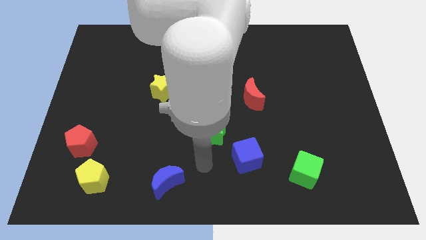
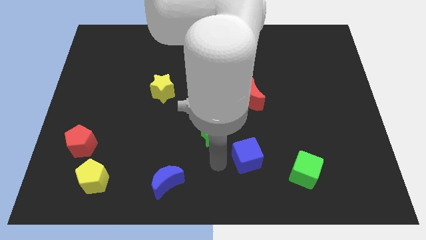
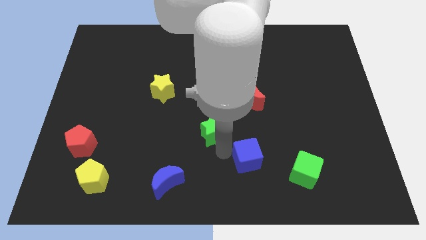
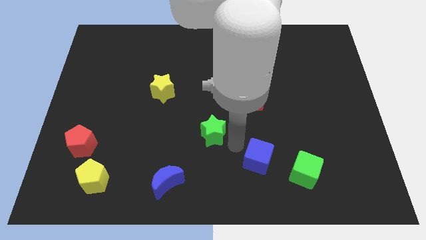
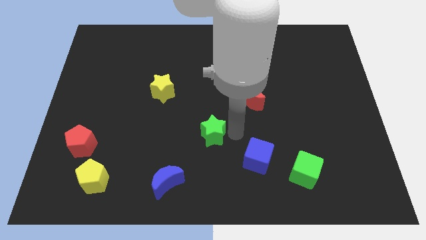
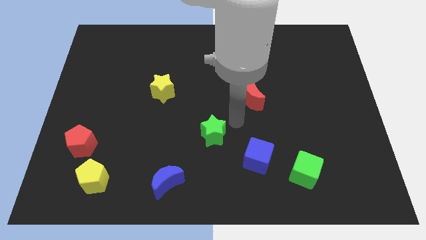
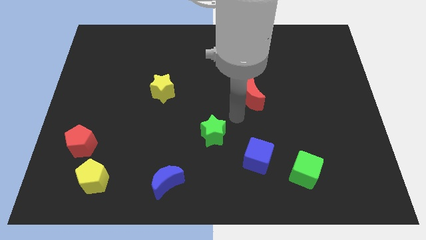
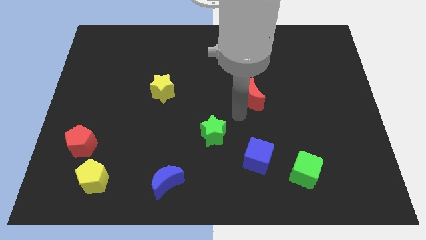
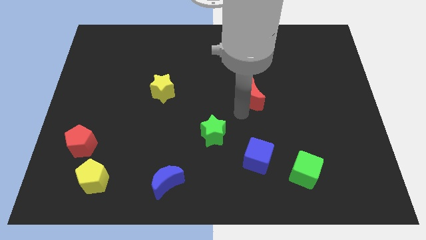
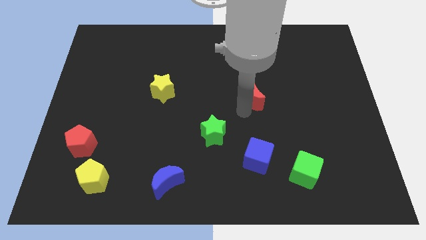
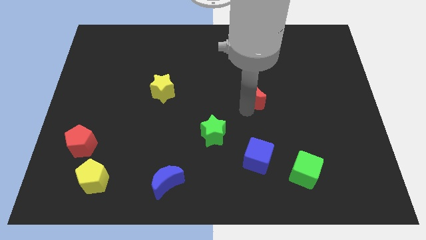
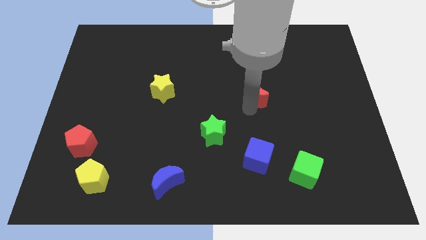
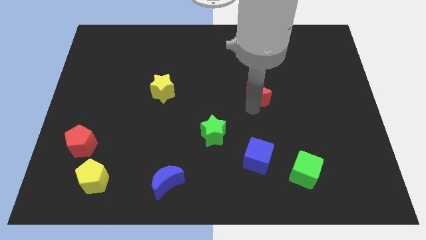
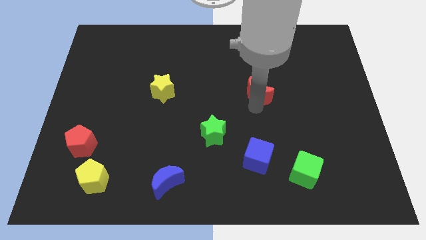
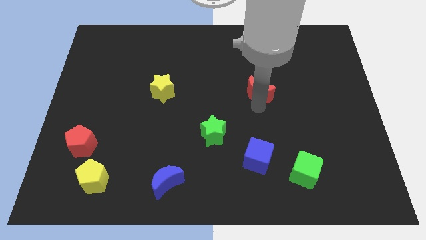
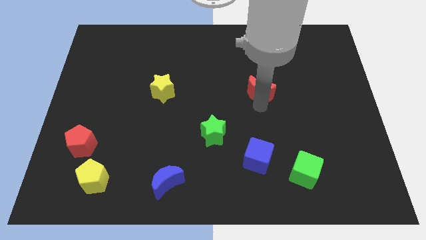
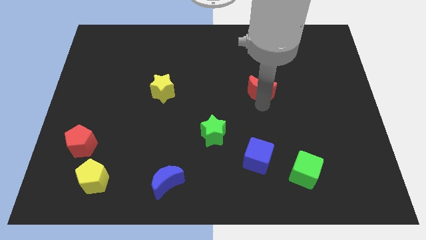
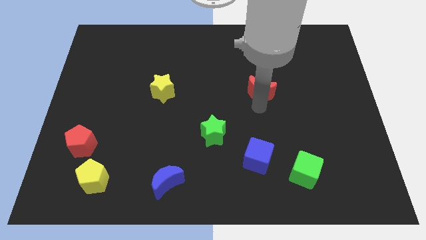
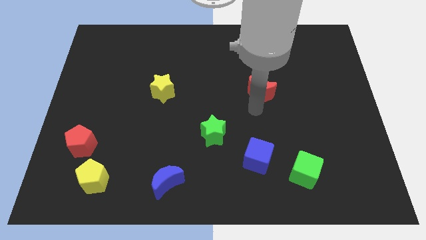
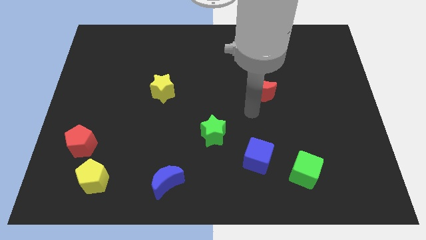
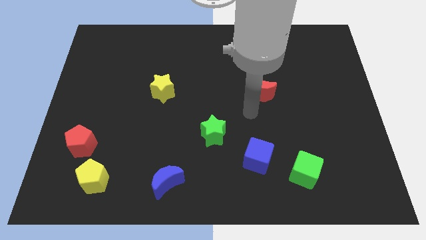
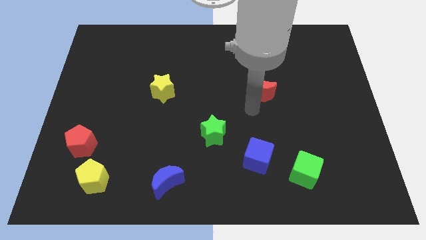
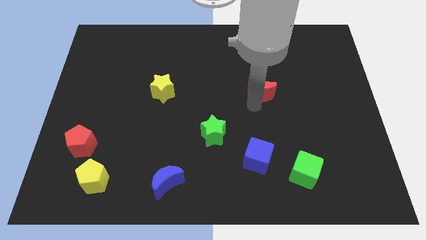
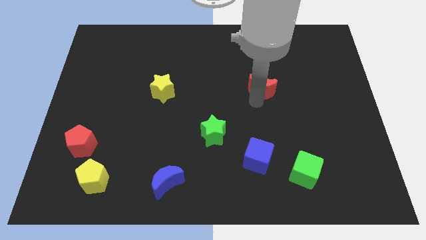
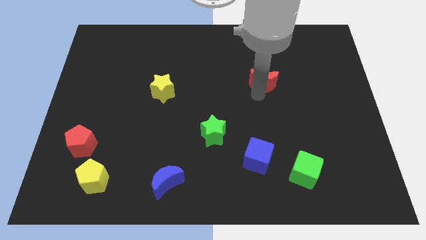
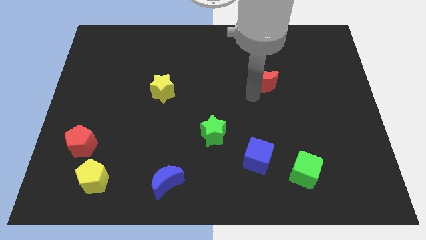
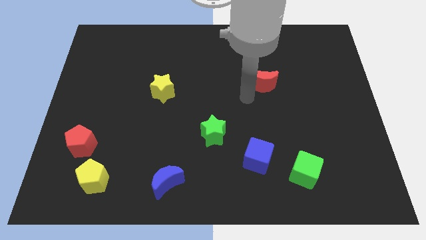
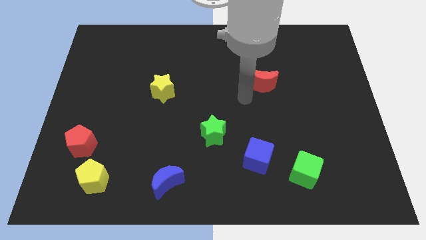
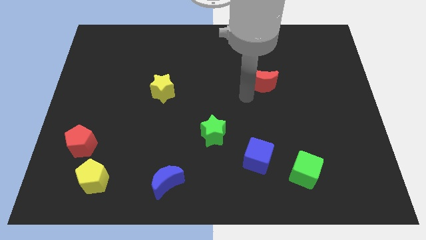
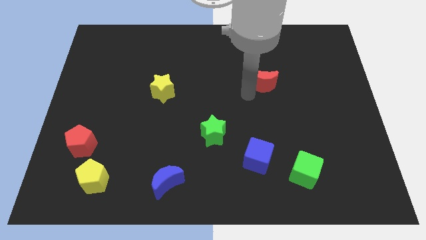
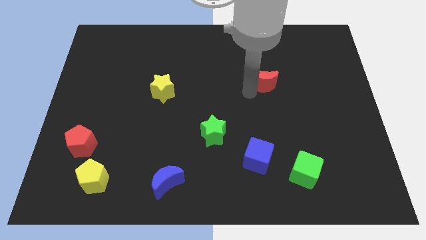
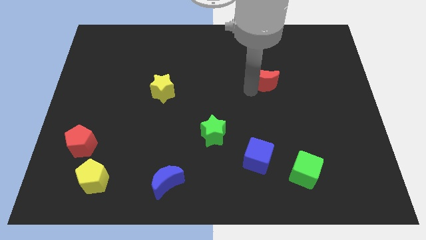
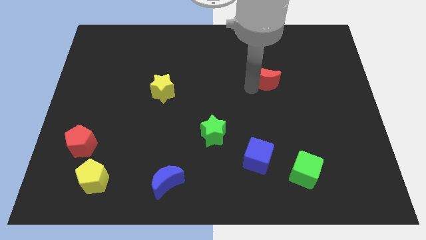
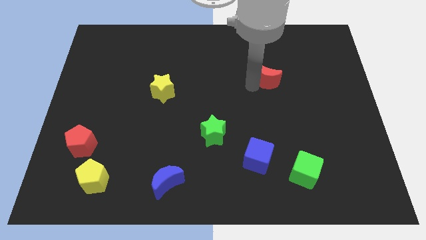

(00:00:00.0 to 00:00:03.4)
slide the red moon up and to the right a little bit

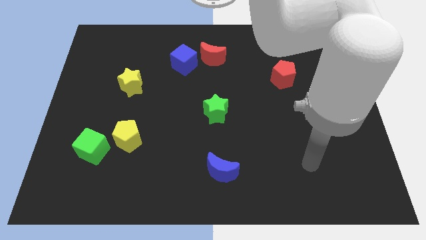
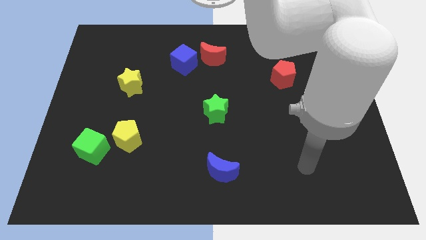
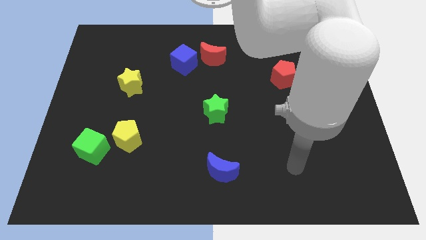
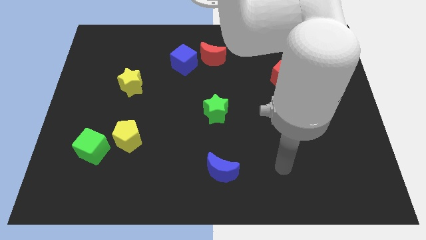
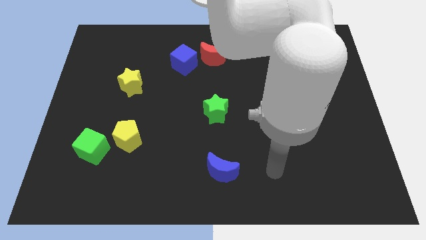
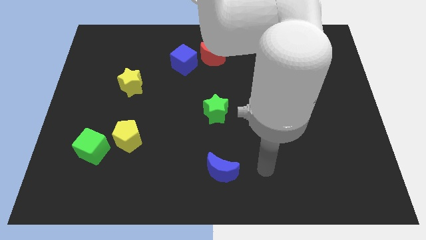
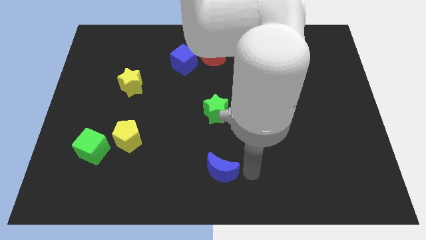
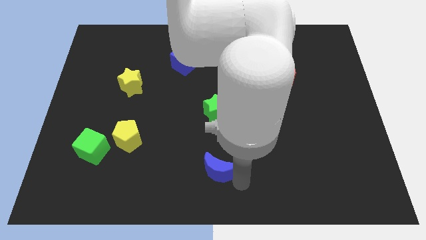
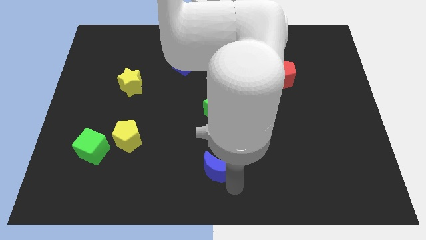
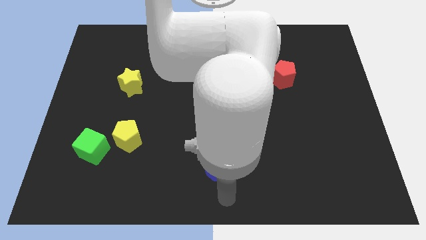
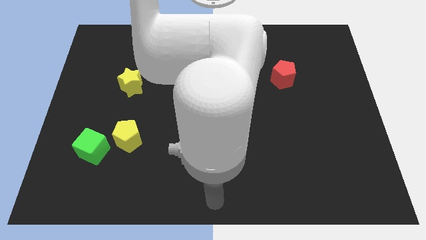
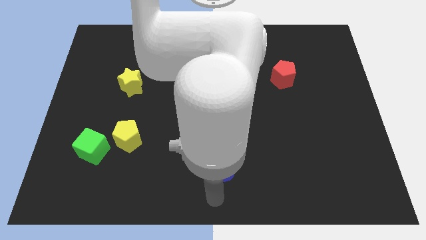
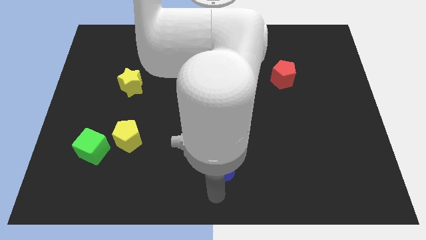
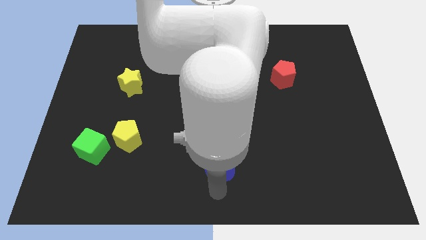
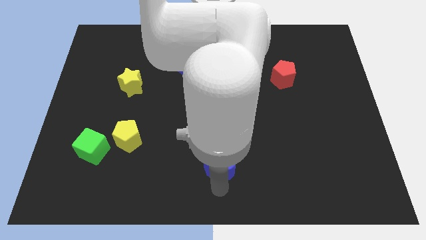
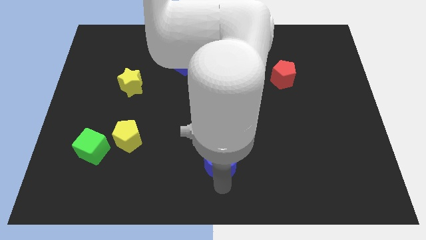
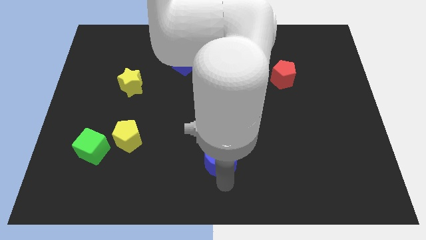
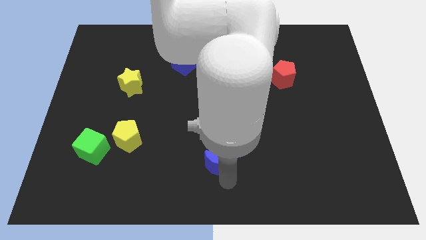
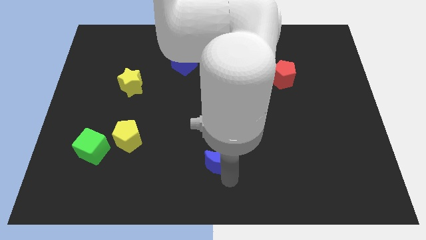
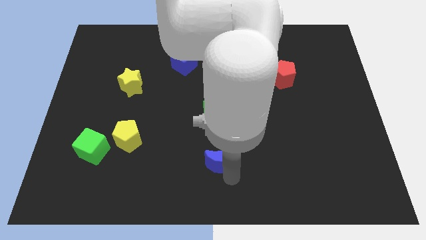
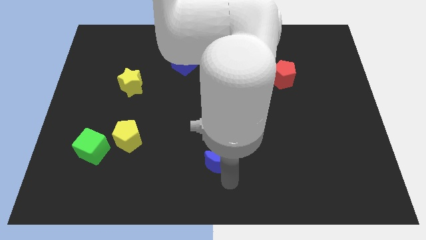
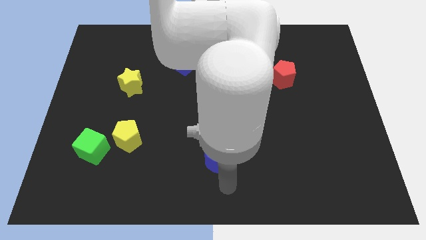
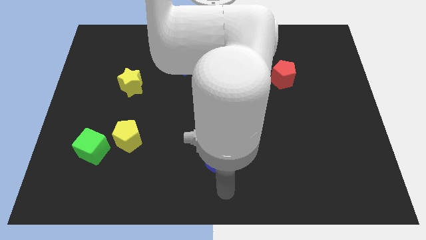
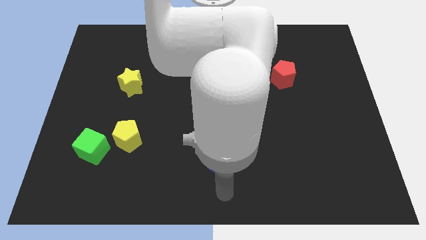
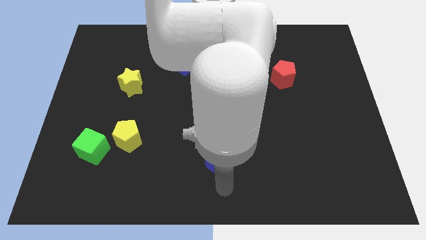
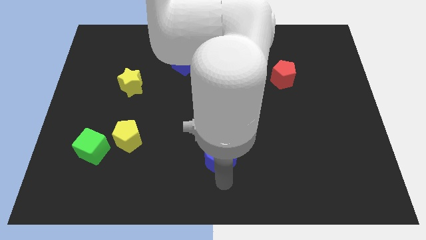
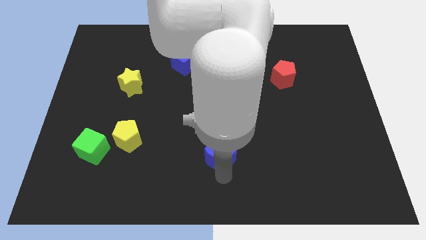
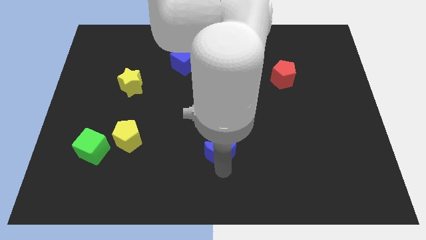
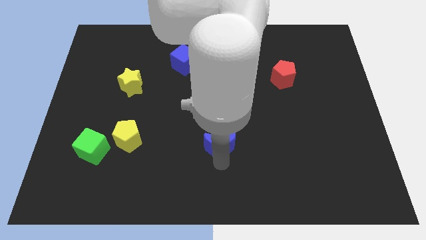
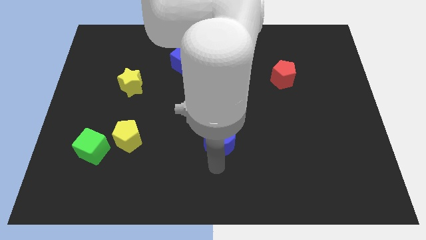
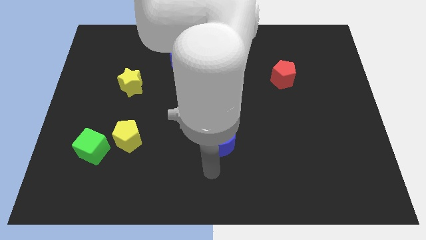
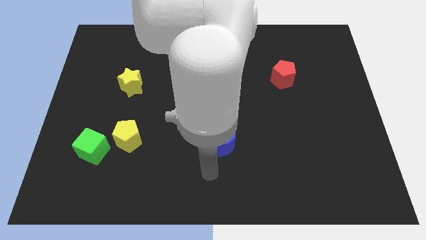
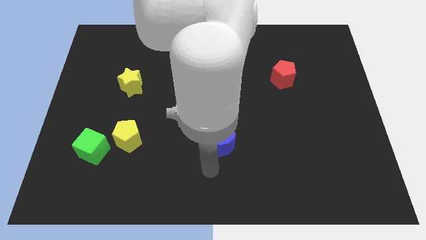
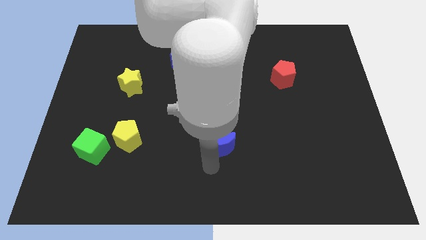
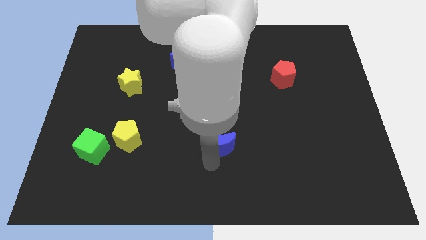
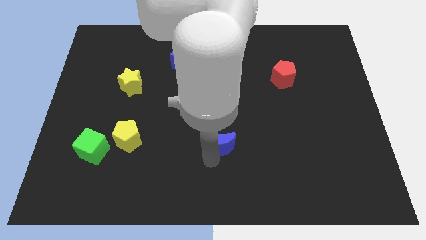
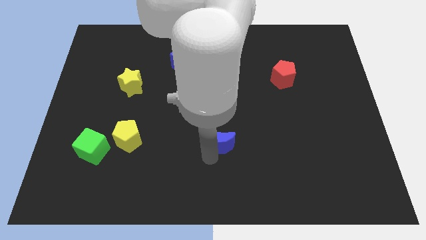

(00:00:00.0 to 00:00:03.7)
move the blue moon upwards a little

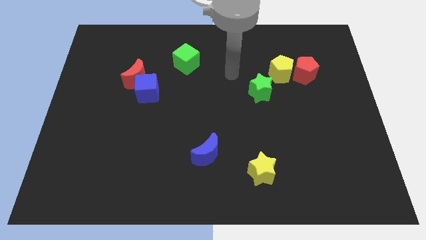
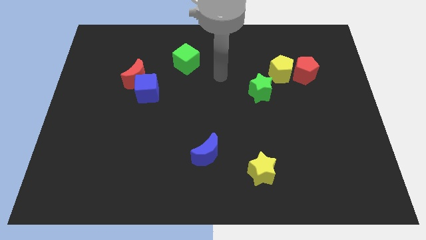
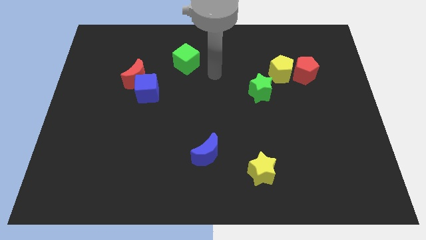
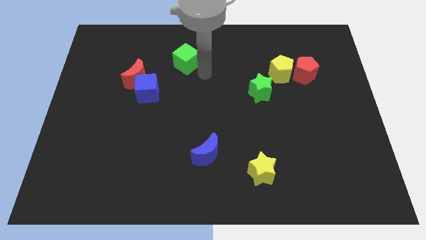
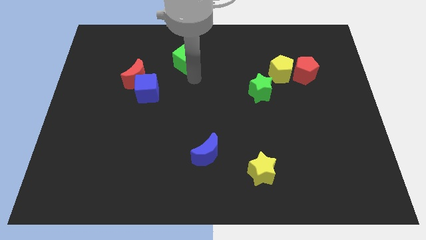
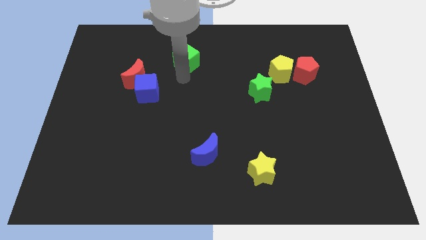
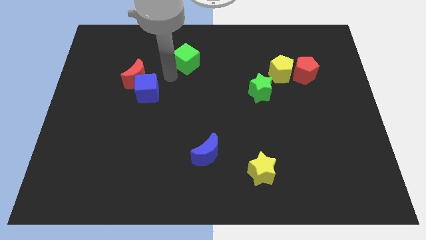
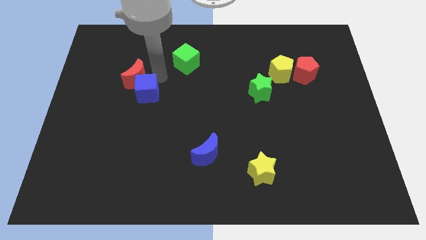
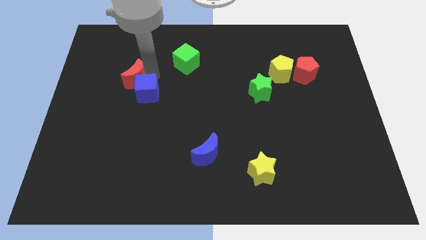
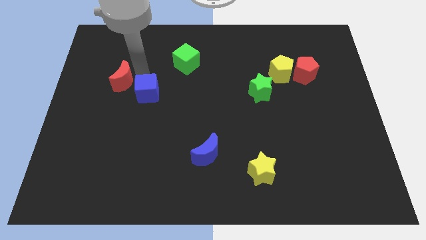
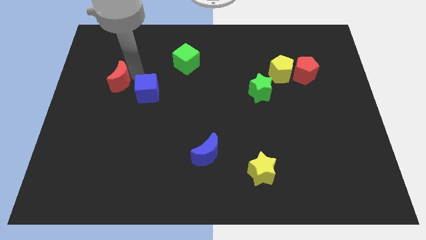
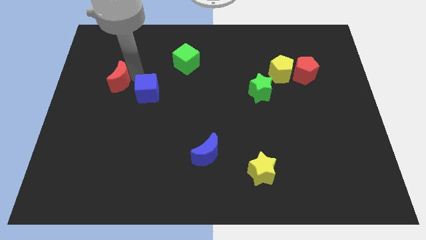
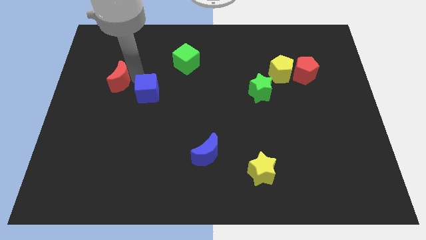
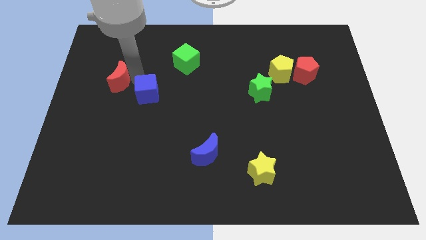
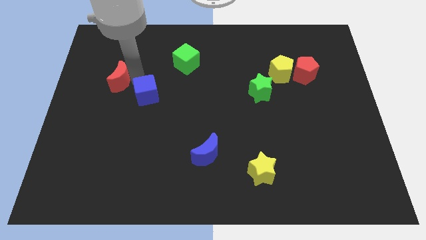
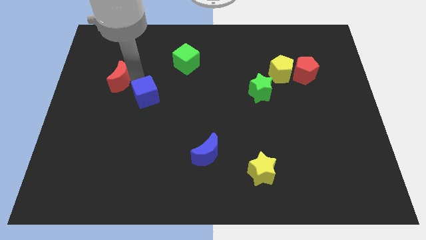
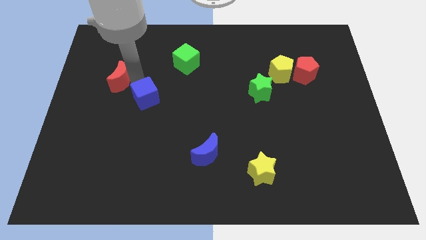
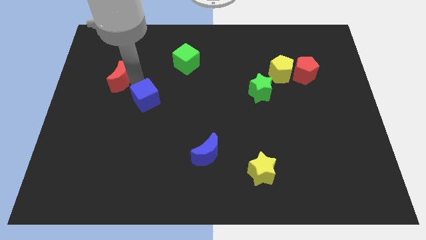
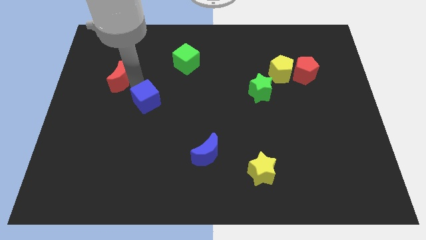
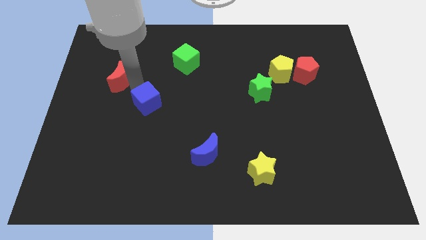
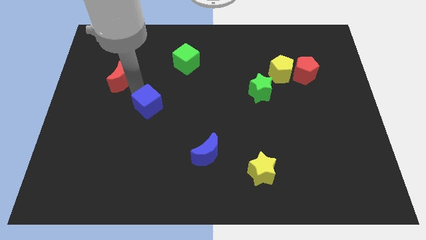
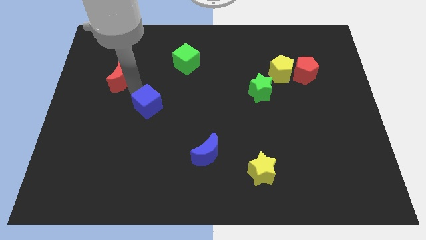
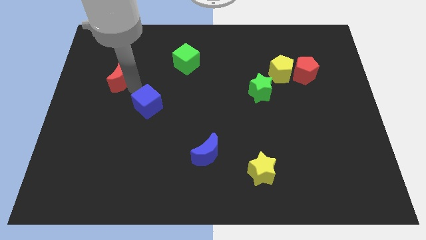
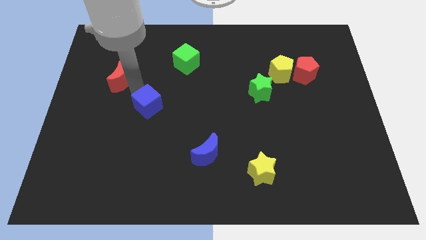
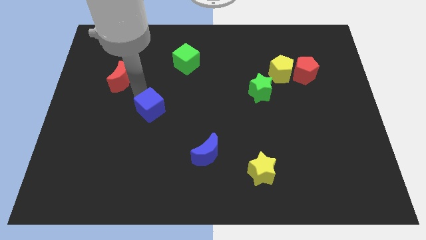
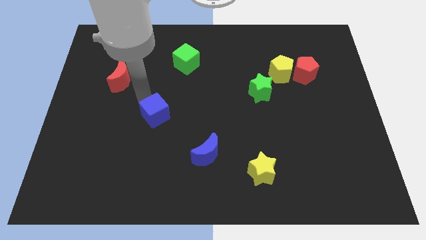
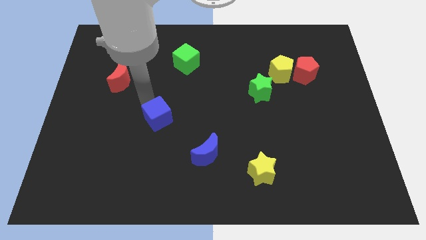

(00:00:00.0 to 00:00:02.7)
push the blue cube downwards and then right a bit
